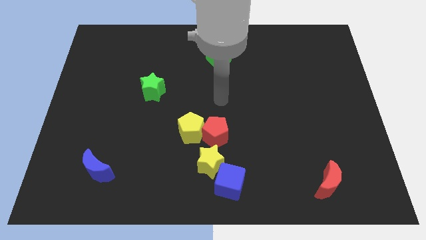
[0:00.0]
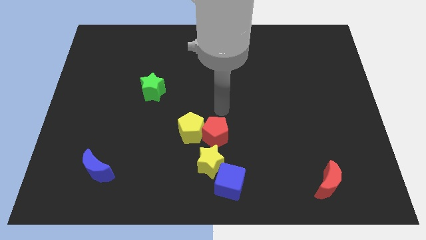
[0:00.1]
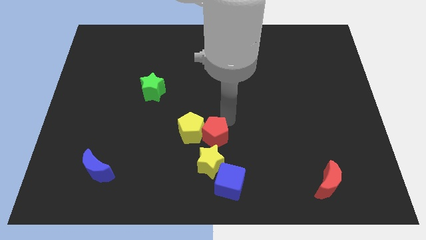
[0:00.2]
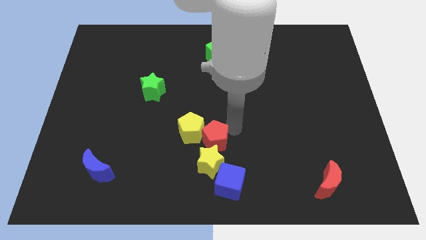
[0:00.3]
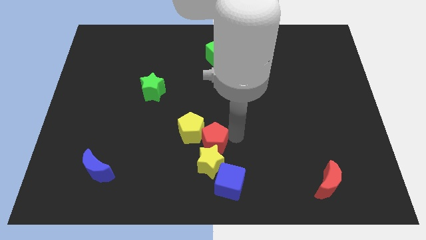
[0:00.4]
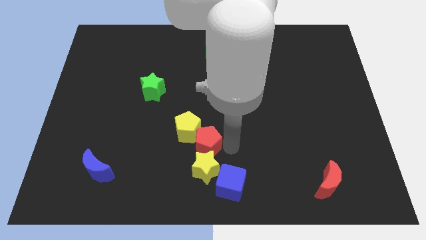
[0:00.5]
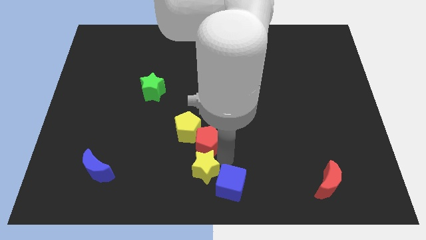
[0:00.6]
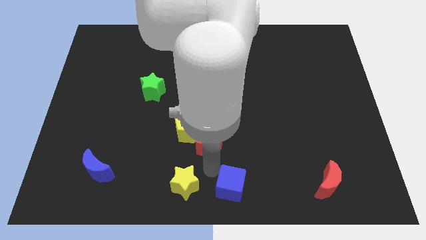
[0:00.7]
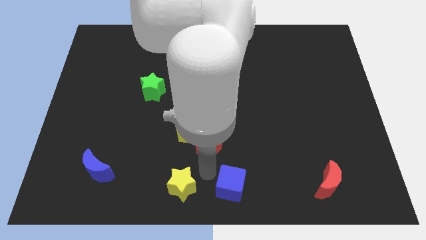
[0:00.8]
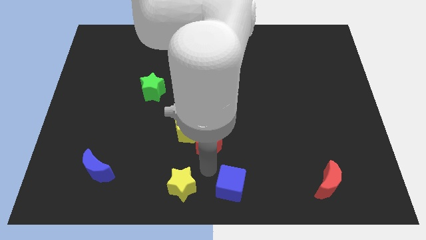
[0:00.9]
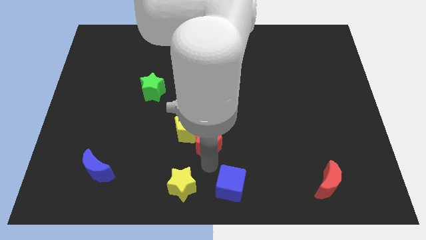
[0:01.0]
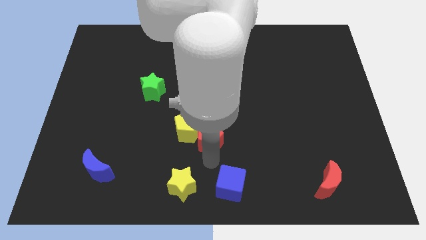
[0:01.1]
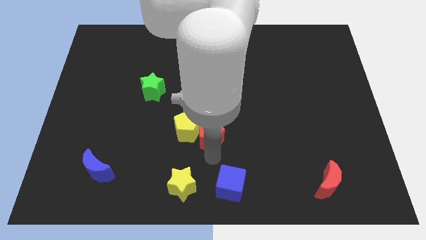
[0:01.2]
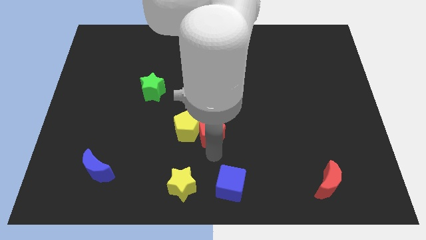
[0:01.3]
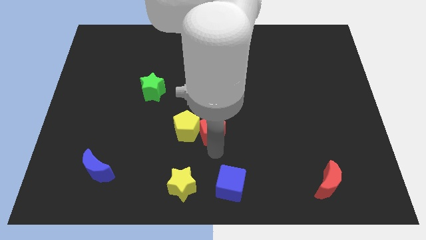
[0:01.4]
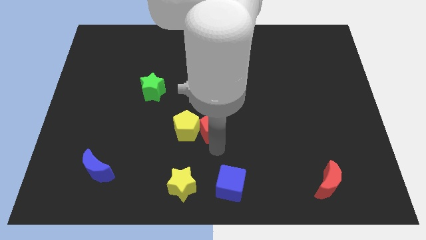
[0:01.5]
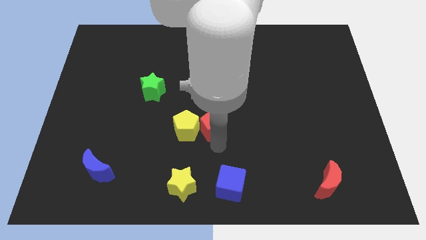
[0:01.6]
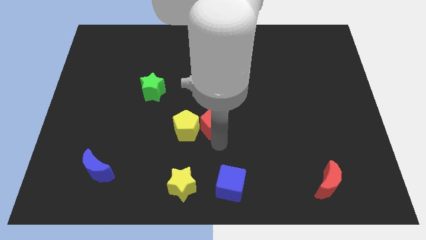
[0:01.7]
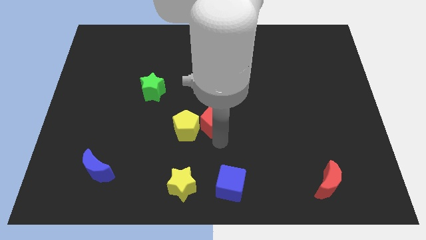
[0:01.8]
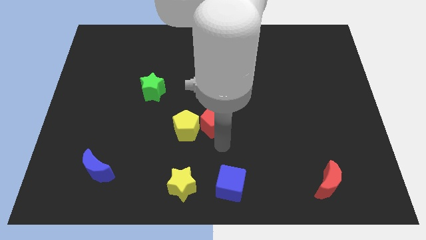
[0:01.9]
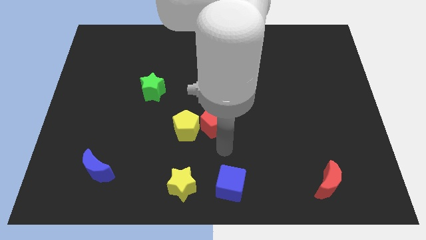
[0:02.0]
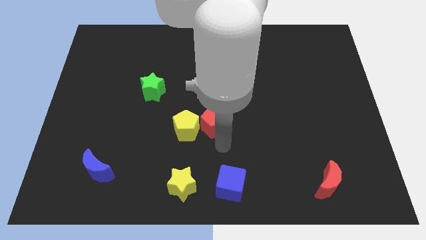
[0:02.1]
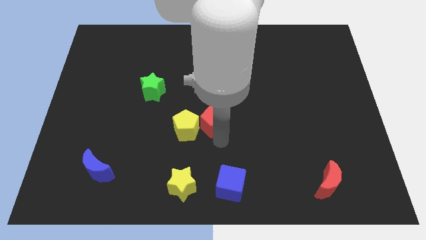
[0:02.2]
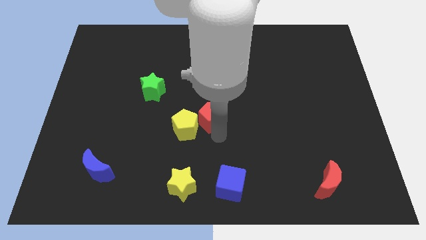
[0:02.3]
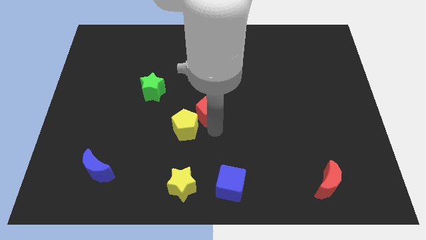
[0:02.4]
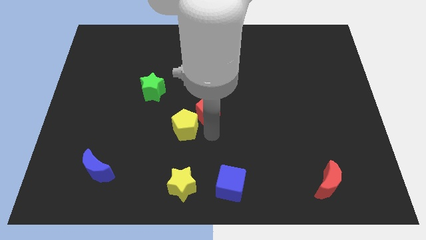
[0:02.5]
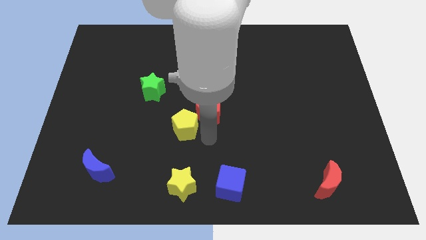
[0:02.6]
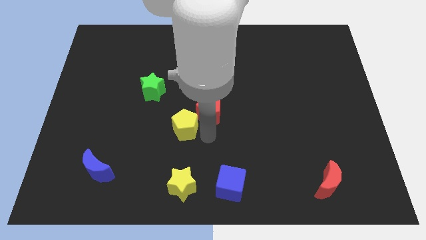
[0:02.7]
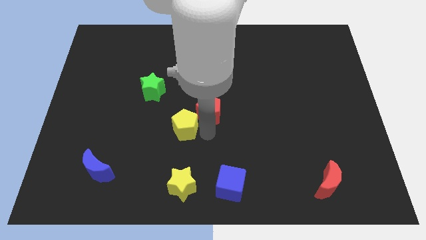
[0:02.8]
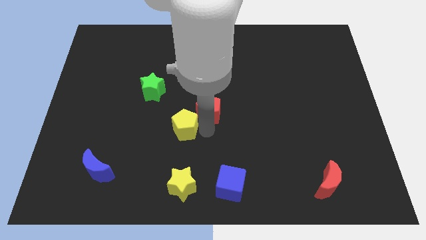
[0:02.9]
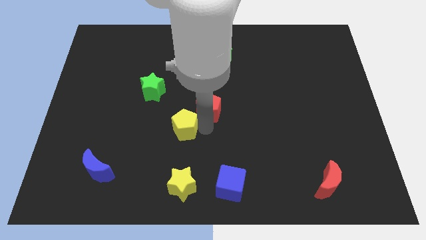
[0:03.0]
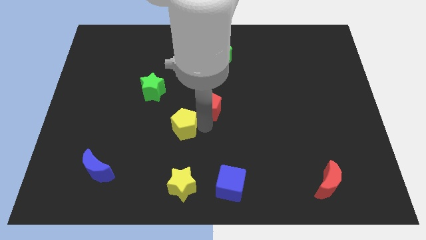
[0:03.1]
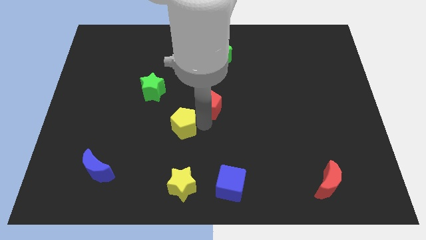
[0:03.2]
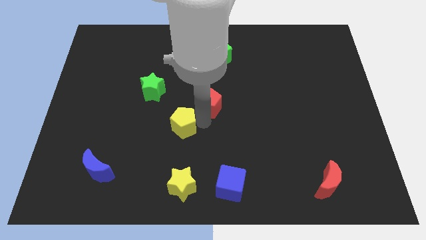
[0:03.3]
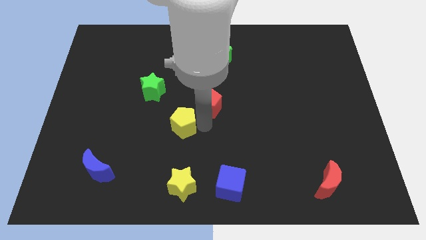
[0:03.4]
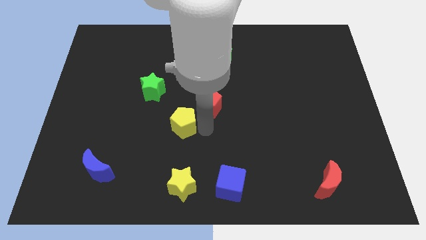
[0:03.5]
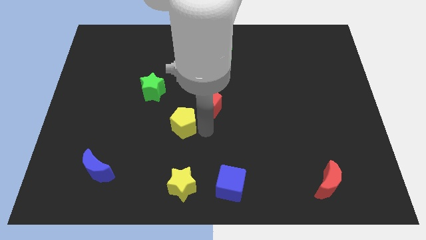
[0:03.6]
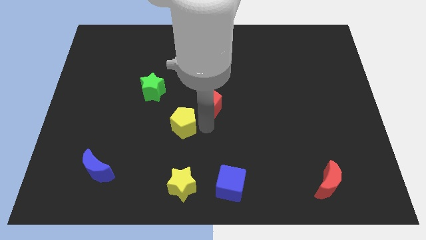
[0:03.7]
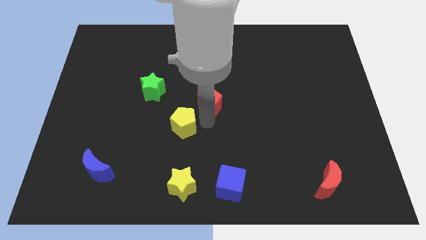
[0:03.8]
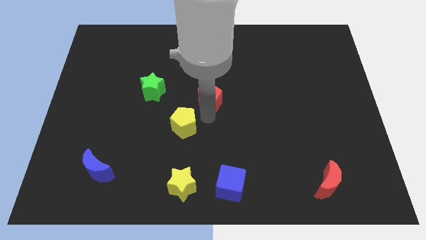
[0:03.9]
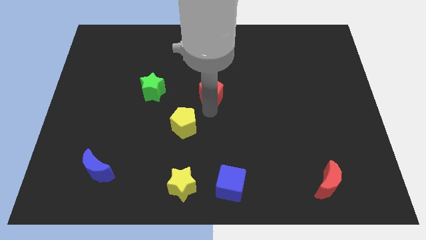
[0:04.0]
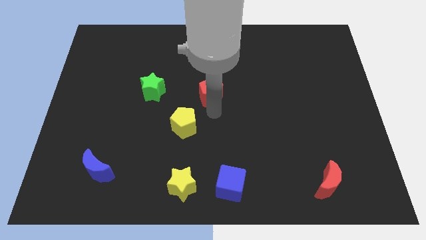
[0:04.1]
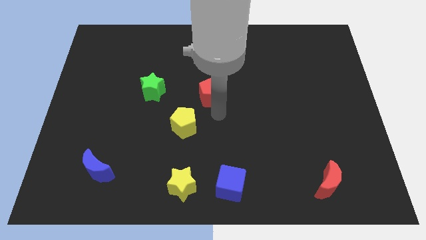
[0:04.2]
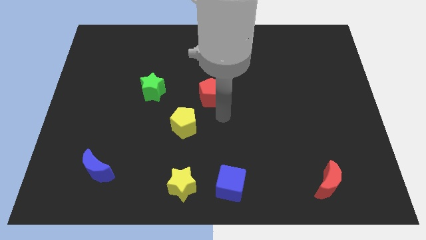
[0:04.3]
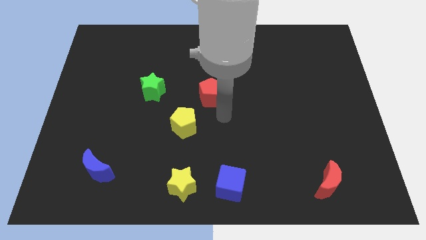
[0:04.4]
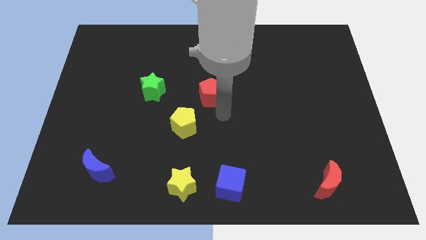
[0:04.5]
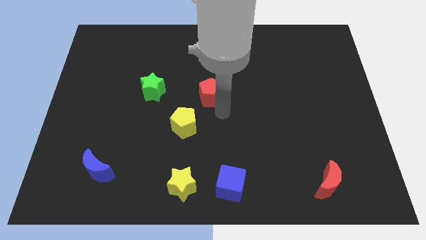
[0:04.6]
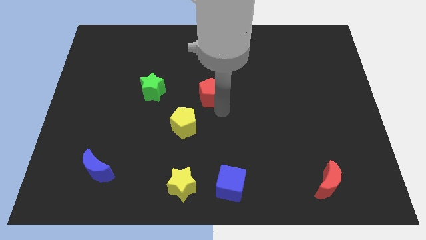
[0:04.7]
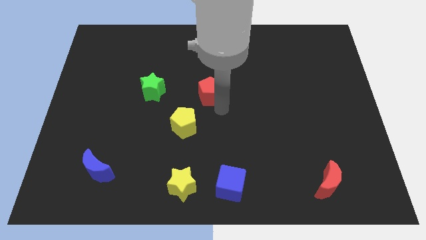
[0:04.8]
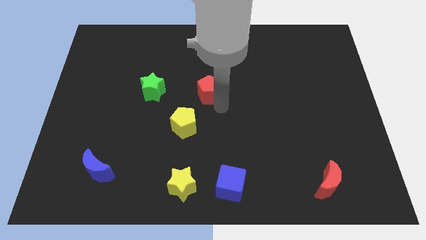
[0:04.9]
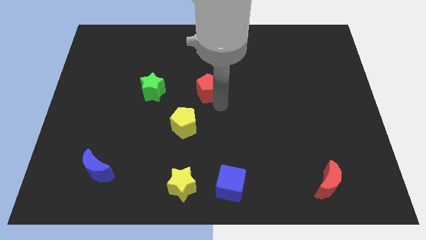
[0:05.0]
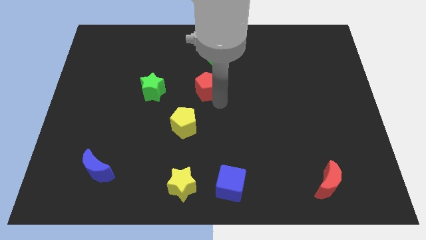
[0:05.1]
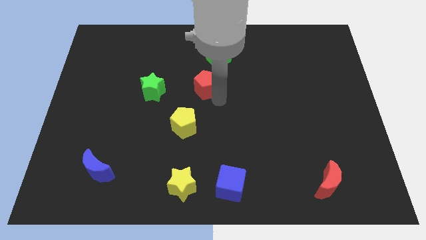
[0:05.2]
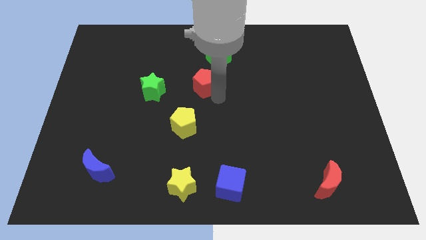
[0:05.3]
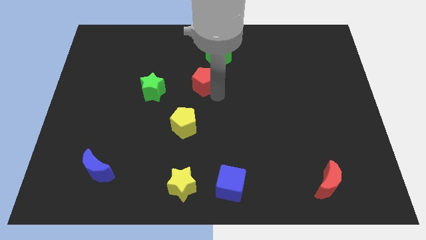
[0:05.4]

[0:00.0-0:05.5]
put the red pentagon to the bottom left side of the green cube
